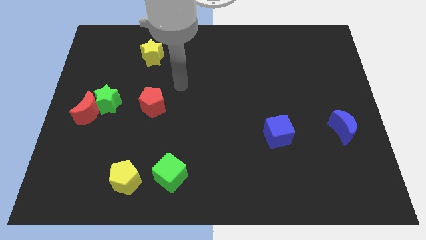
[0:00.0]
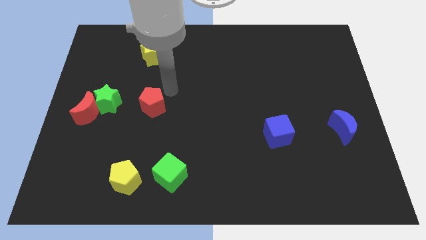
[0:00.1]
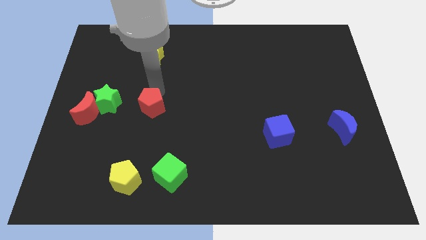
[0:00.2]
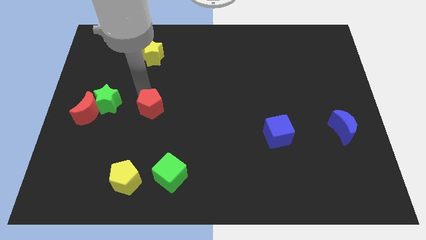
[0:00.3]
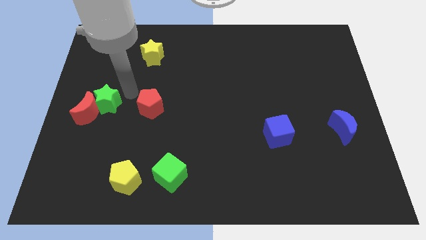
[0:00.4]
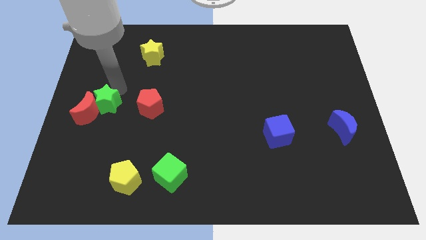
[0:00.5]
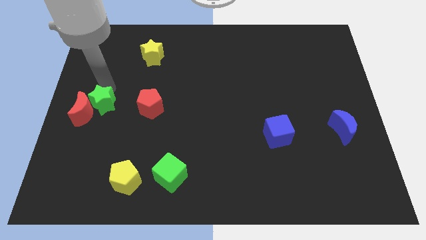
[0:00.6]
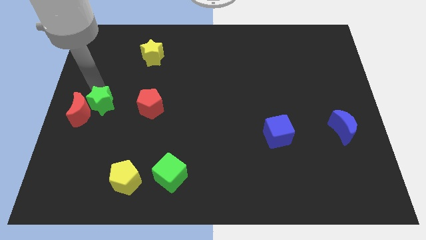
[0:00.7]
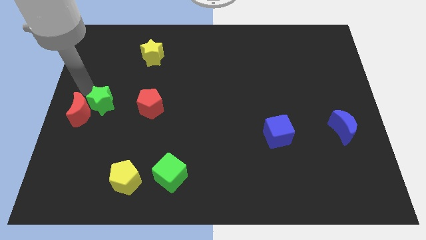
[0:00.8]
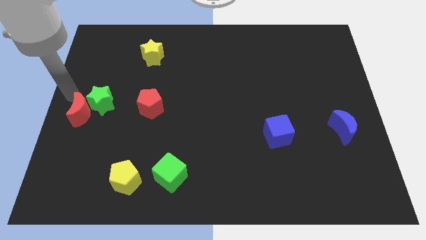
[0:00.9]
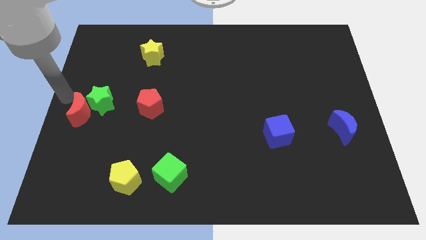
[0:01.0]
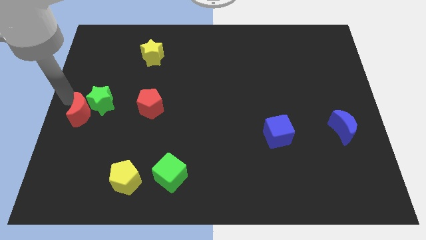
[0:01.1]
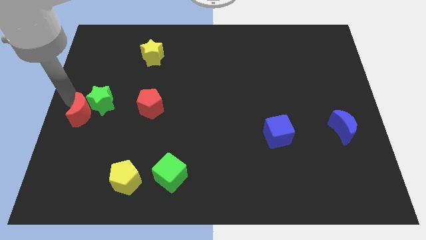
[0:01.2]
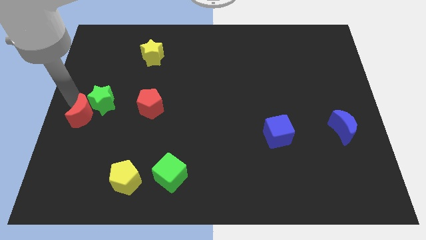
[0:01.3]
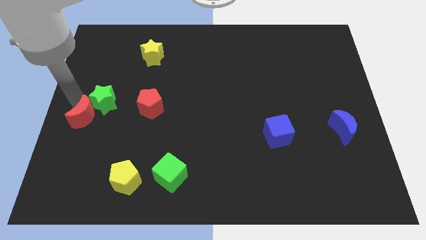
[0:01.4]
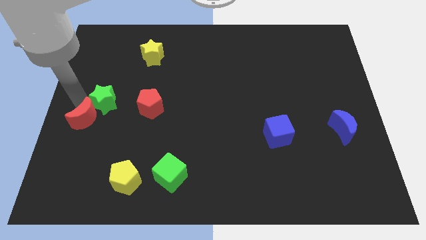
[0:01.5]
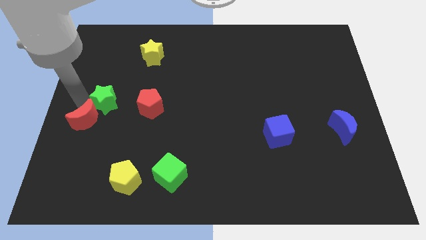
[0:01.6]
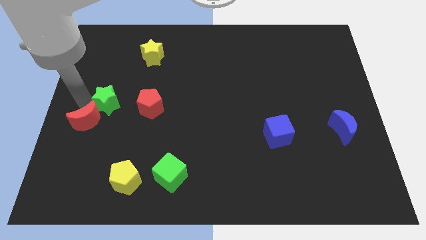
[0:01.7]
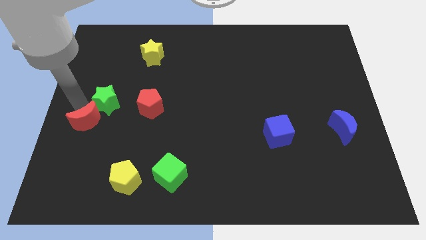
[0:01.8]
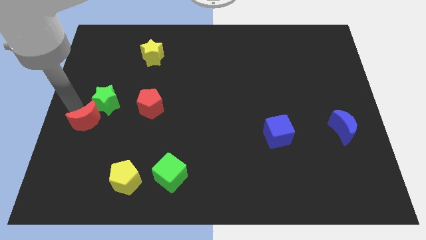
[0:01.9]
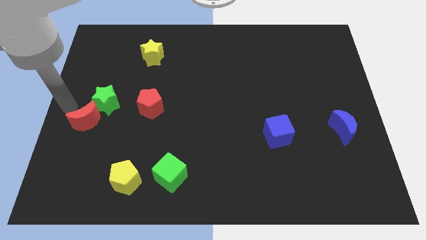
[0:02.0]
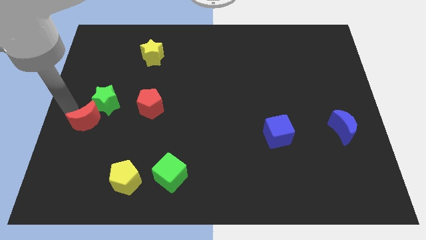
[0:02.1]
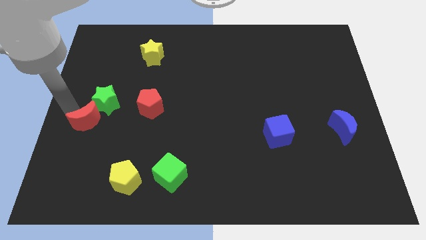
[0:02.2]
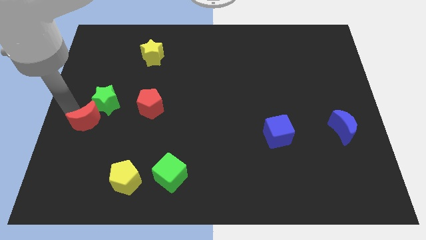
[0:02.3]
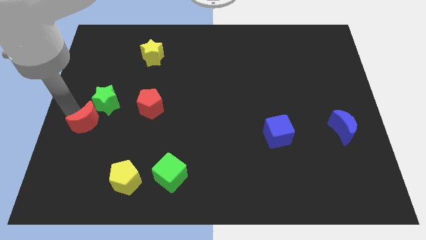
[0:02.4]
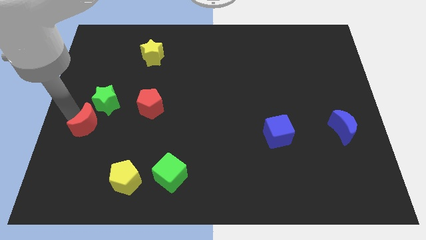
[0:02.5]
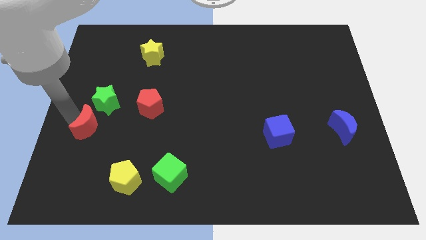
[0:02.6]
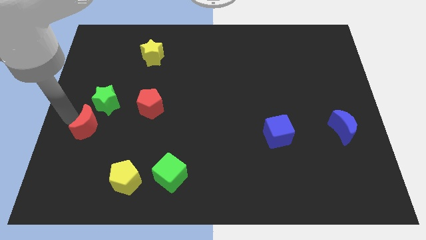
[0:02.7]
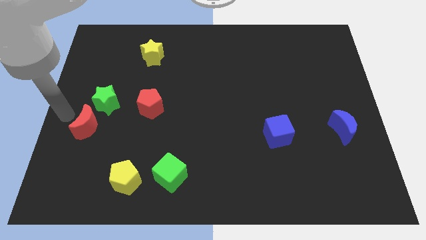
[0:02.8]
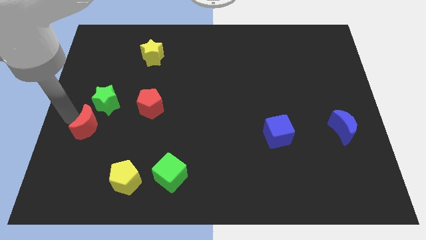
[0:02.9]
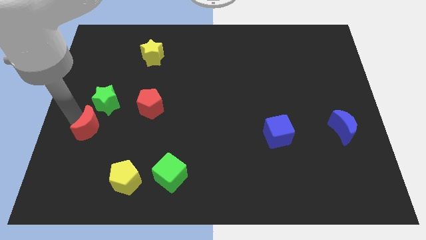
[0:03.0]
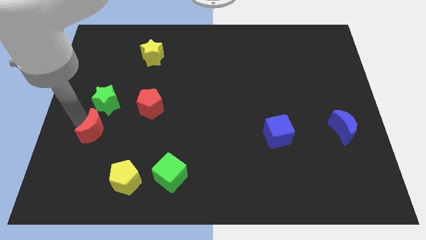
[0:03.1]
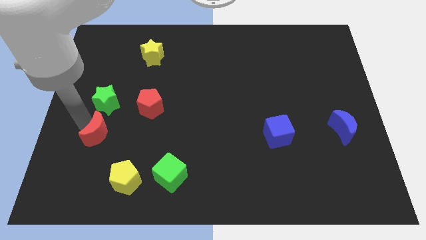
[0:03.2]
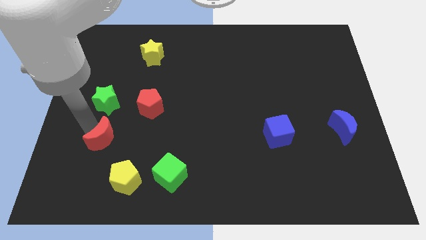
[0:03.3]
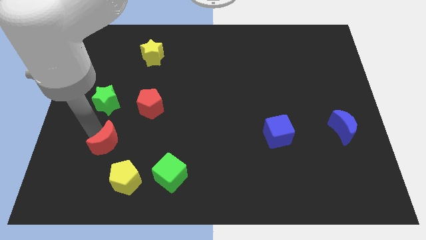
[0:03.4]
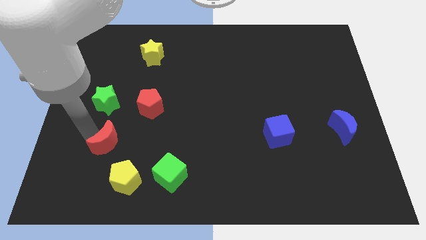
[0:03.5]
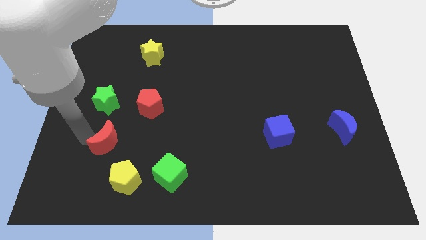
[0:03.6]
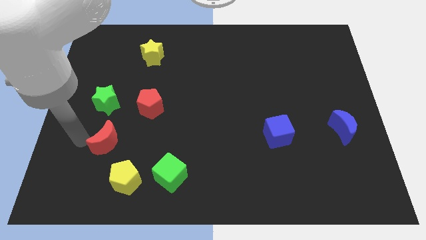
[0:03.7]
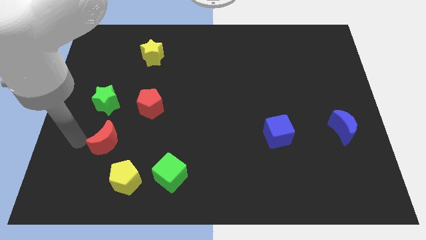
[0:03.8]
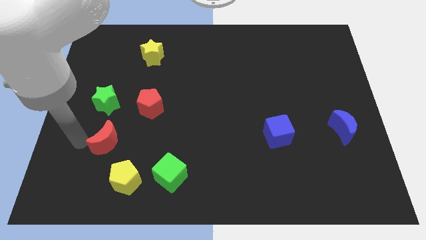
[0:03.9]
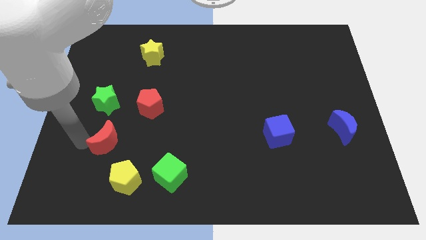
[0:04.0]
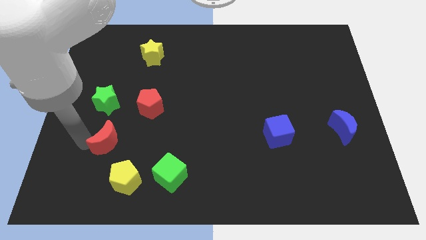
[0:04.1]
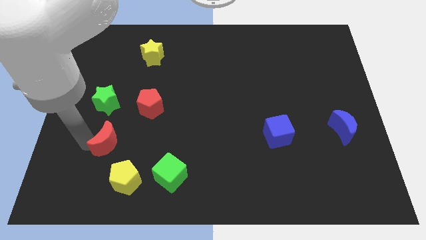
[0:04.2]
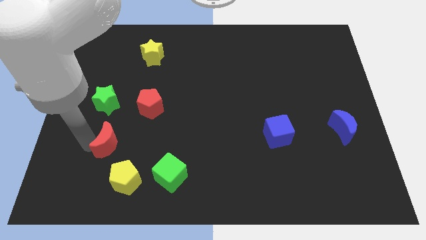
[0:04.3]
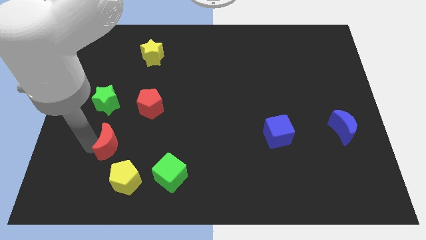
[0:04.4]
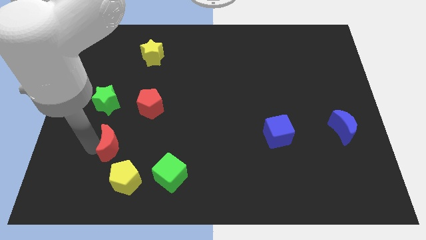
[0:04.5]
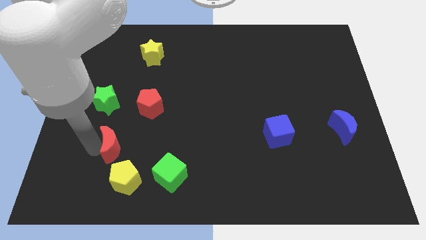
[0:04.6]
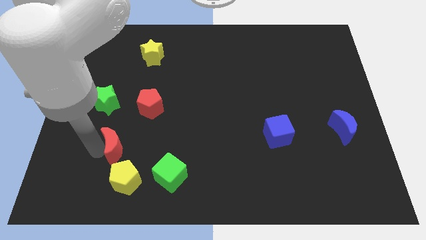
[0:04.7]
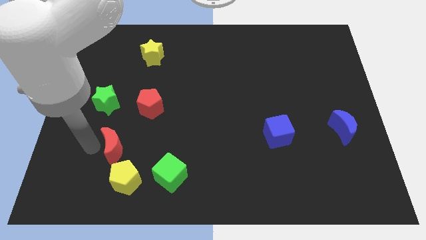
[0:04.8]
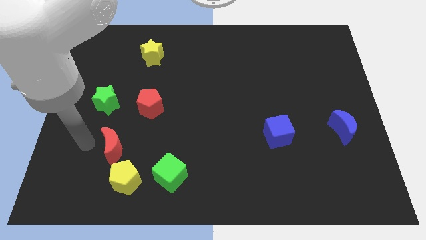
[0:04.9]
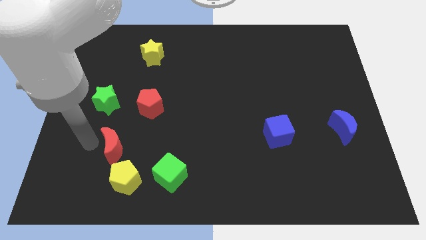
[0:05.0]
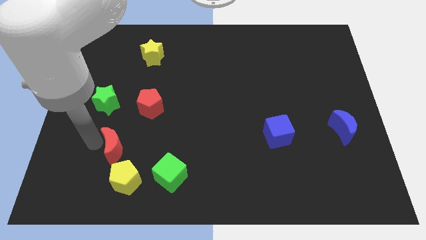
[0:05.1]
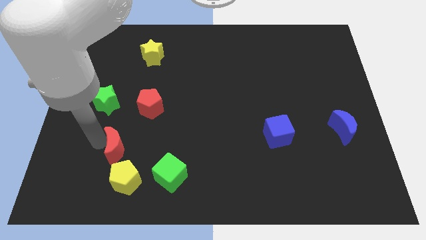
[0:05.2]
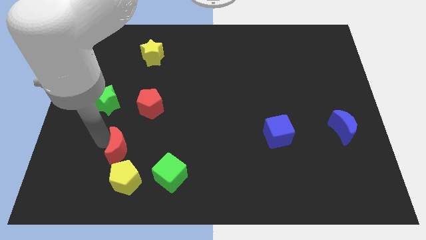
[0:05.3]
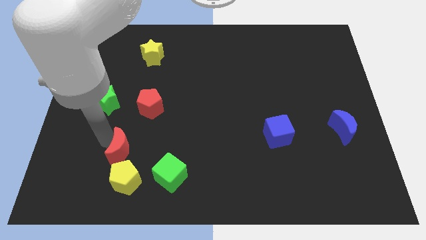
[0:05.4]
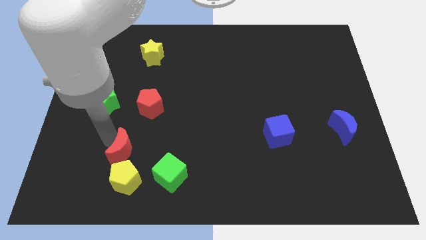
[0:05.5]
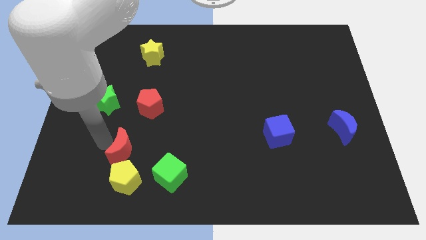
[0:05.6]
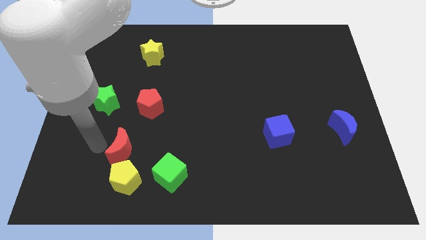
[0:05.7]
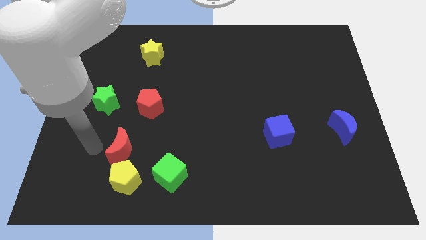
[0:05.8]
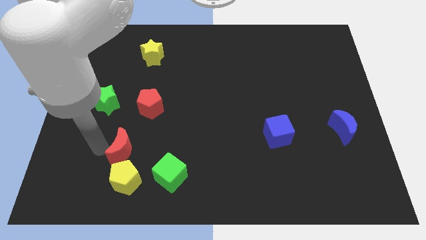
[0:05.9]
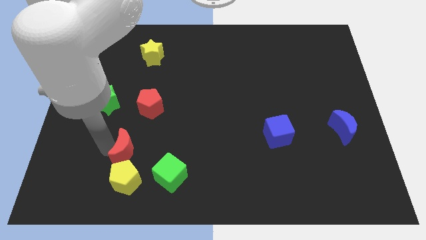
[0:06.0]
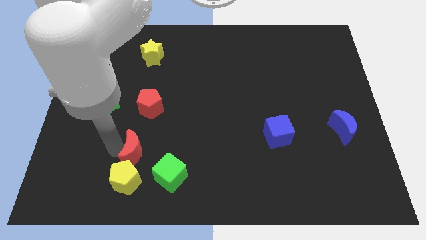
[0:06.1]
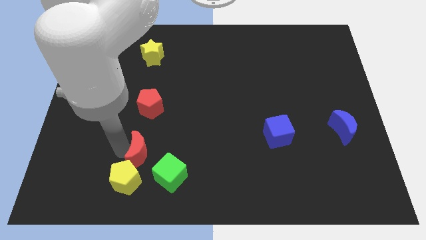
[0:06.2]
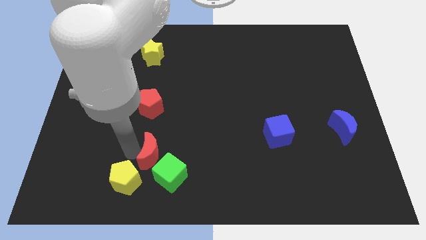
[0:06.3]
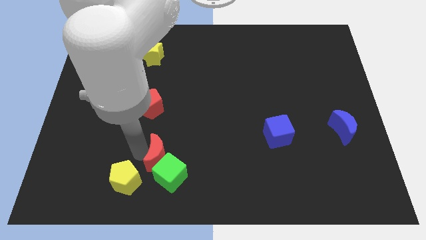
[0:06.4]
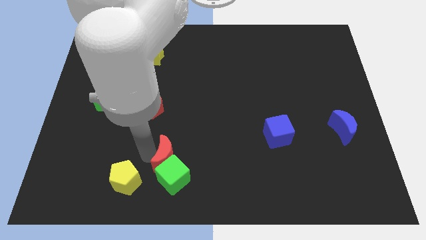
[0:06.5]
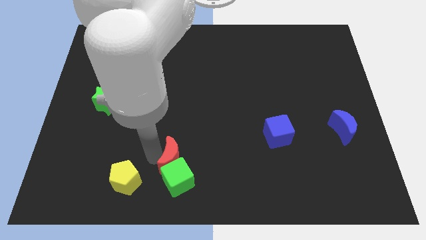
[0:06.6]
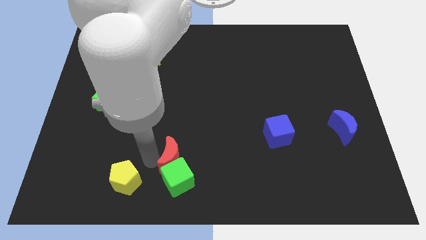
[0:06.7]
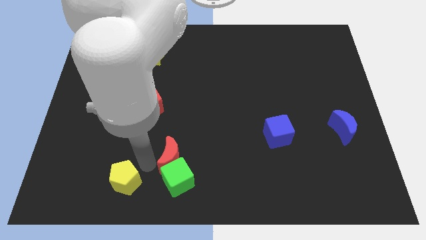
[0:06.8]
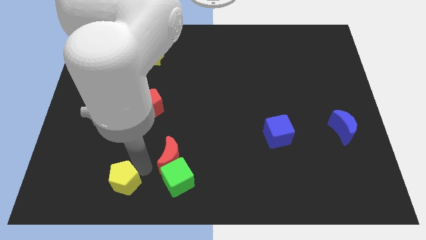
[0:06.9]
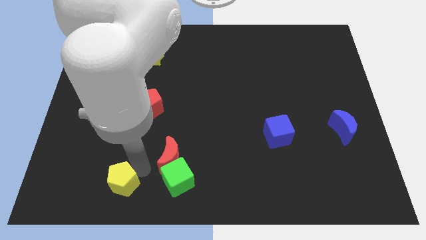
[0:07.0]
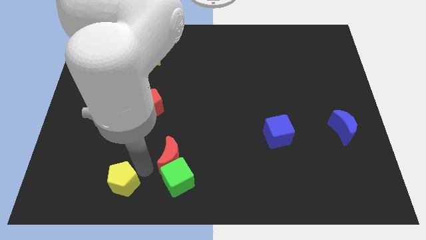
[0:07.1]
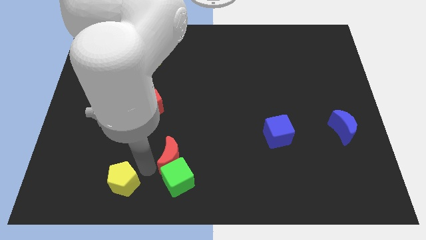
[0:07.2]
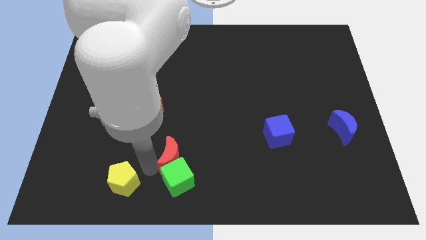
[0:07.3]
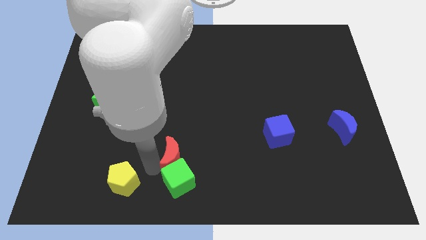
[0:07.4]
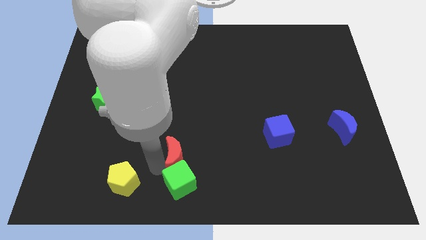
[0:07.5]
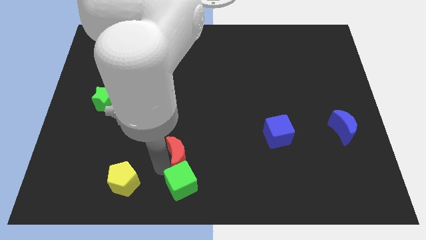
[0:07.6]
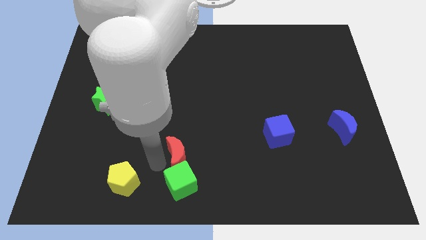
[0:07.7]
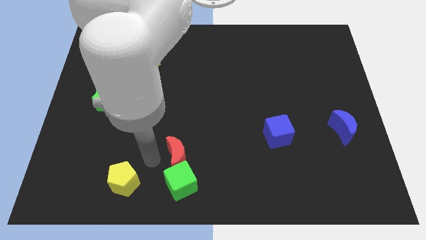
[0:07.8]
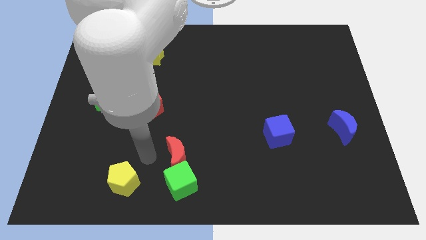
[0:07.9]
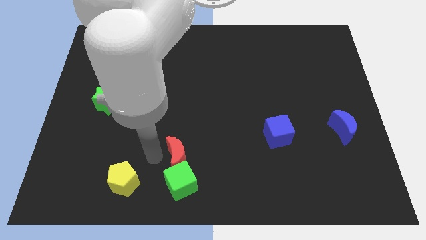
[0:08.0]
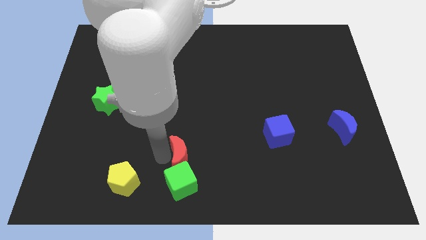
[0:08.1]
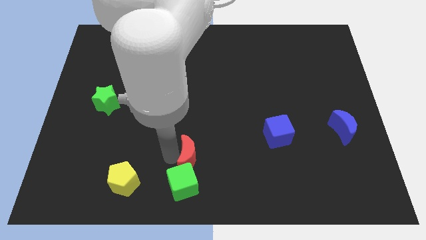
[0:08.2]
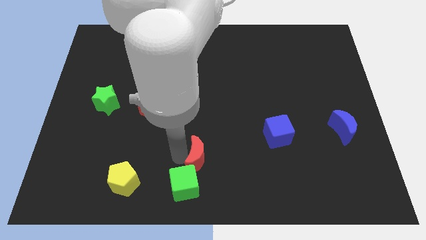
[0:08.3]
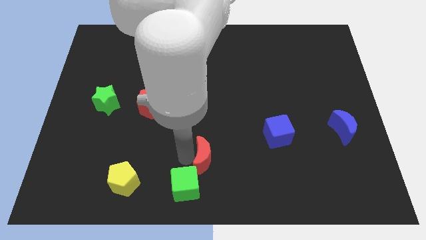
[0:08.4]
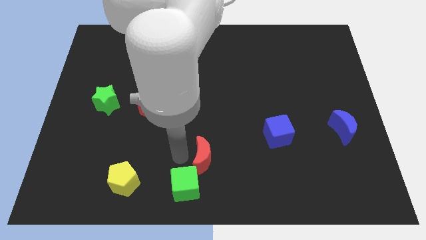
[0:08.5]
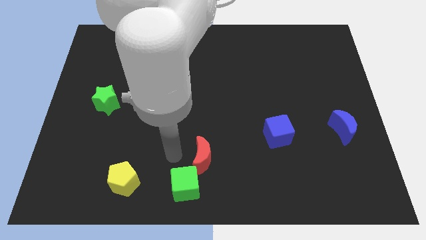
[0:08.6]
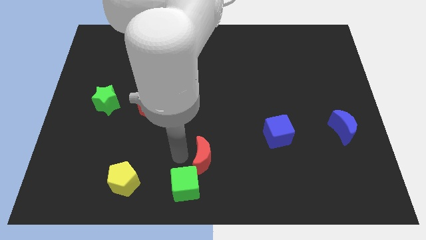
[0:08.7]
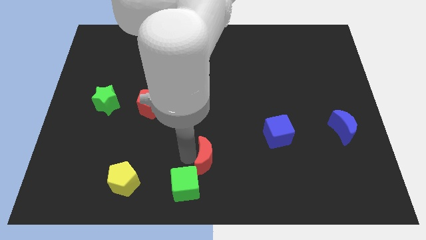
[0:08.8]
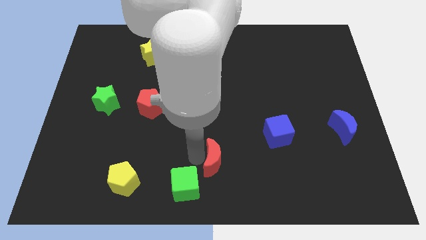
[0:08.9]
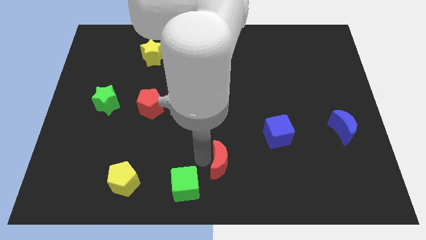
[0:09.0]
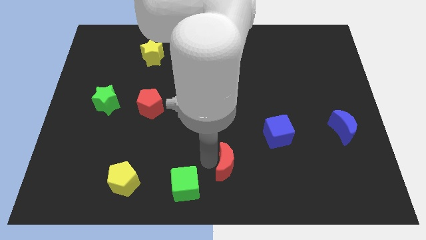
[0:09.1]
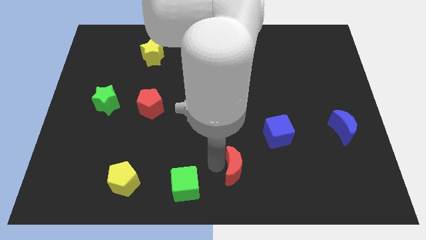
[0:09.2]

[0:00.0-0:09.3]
push the red moon diagonally down and to the left of the blue cube
